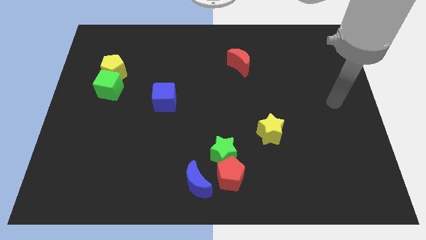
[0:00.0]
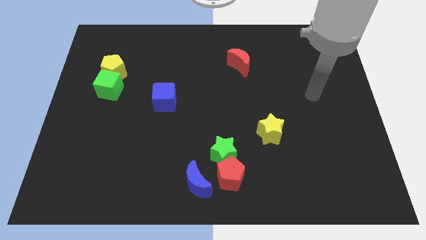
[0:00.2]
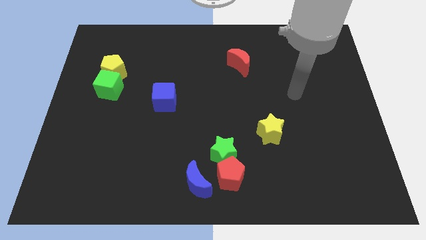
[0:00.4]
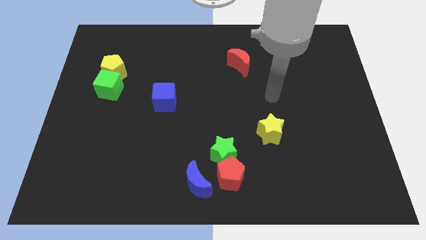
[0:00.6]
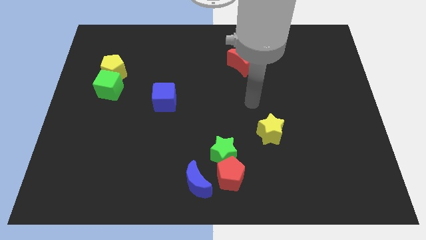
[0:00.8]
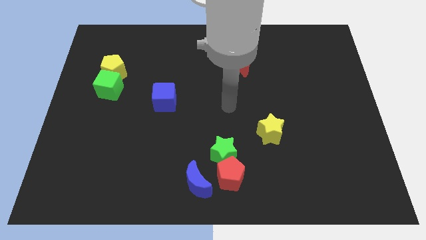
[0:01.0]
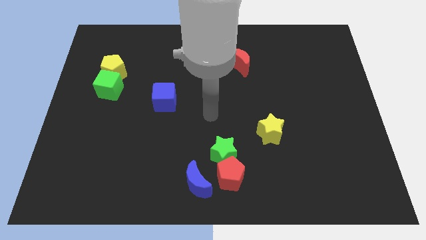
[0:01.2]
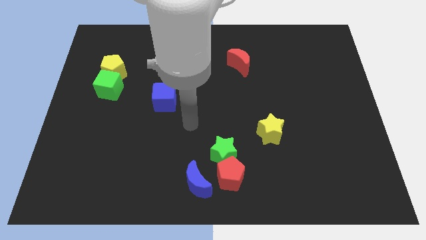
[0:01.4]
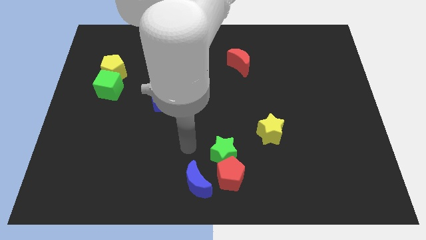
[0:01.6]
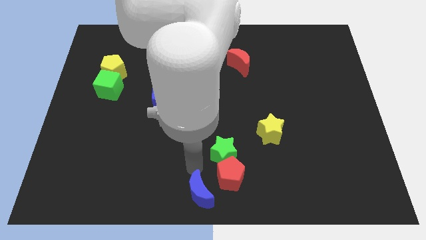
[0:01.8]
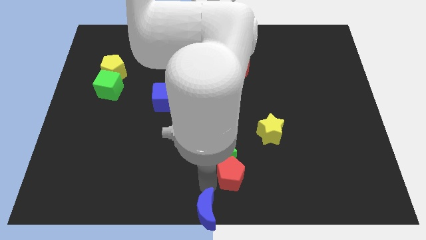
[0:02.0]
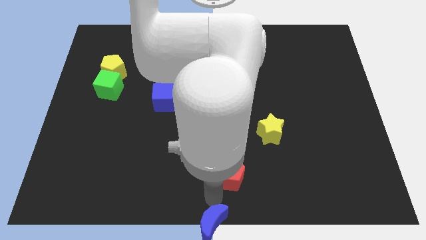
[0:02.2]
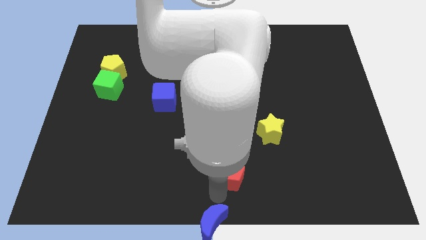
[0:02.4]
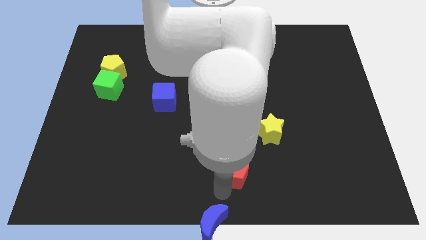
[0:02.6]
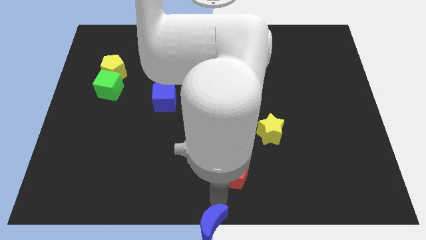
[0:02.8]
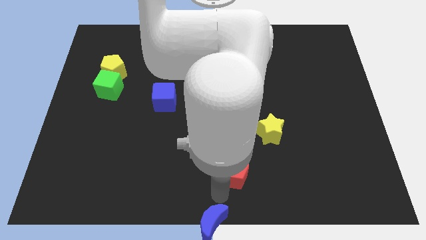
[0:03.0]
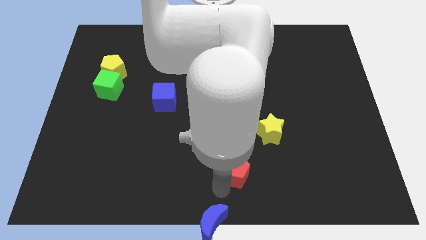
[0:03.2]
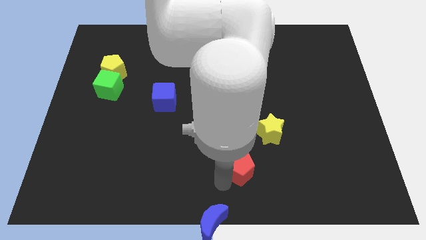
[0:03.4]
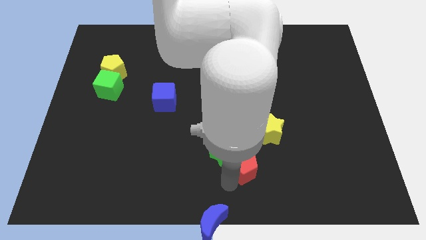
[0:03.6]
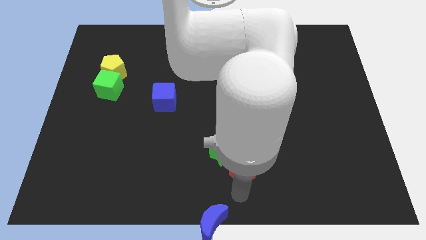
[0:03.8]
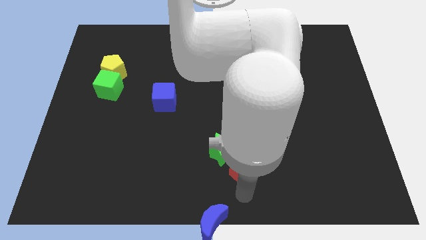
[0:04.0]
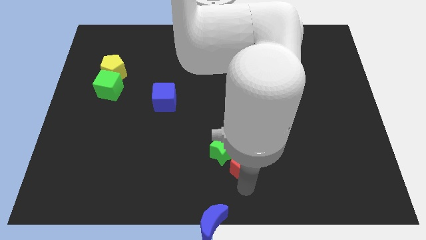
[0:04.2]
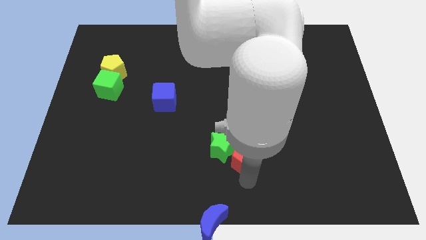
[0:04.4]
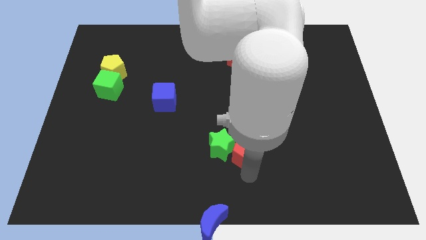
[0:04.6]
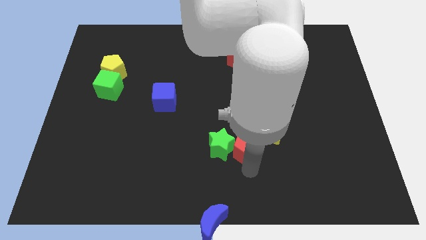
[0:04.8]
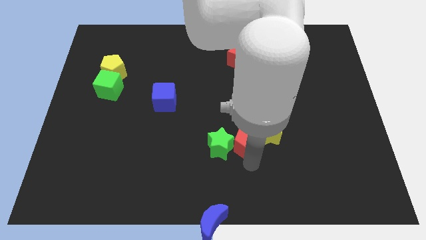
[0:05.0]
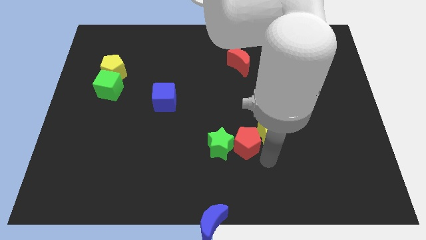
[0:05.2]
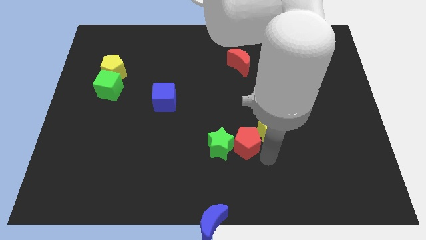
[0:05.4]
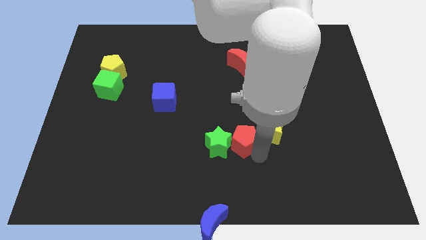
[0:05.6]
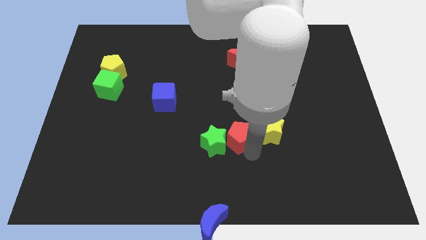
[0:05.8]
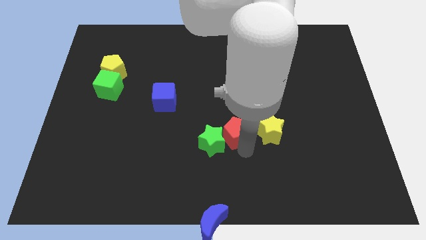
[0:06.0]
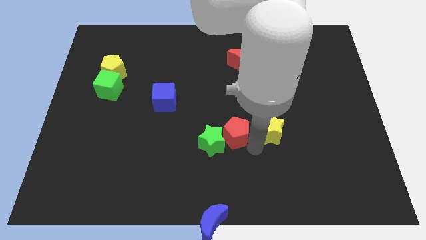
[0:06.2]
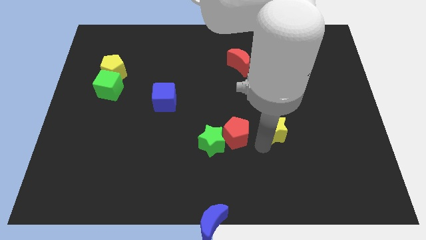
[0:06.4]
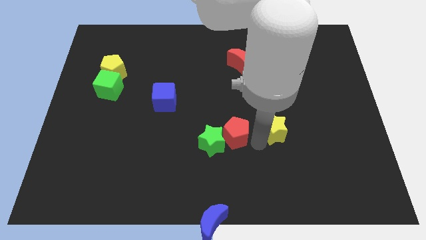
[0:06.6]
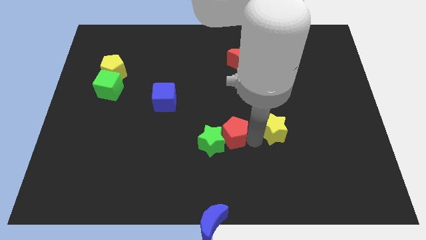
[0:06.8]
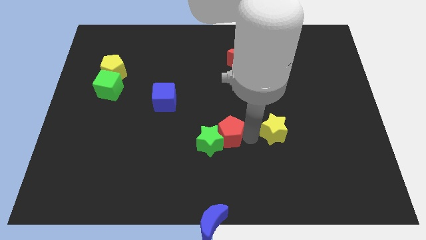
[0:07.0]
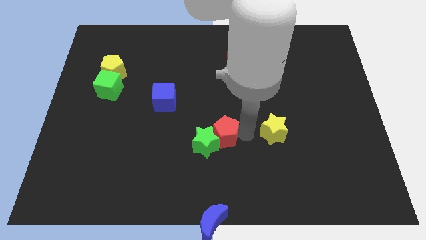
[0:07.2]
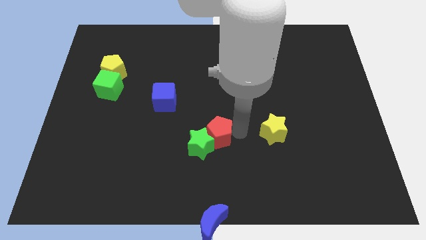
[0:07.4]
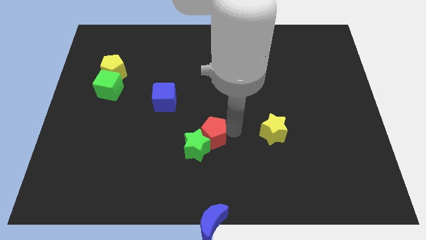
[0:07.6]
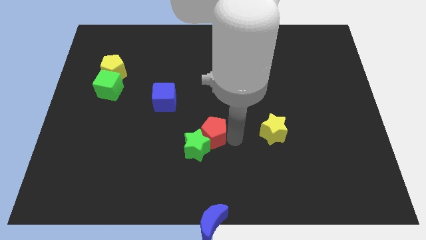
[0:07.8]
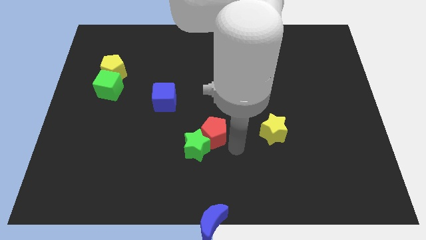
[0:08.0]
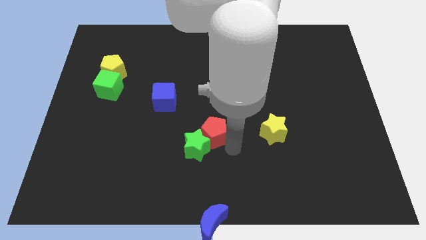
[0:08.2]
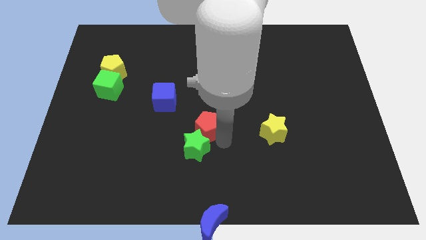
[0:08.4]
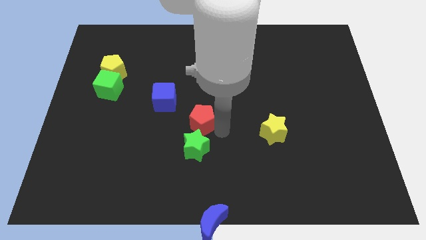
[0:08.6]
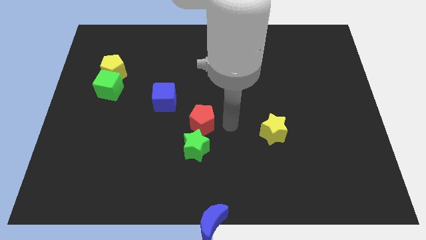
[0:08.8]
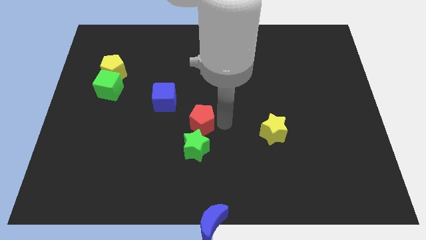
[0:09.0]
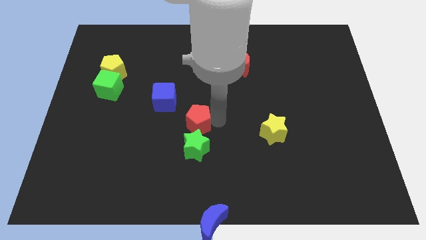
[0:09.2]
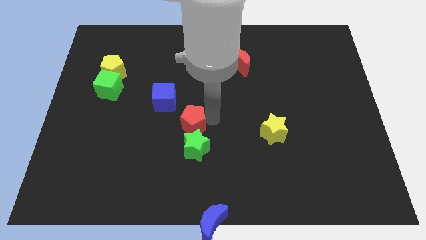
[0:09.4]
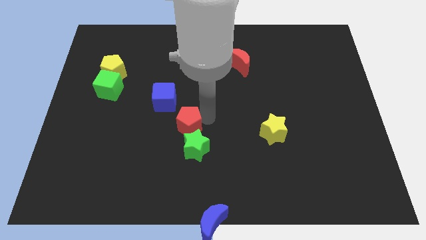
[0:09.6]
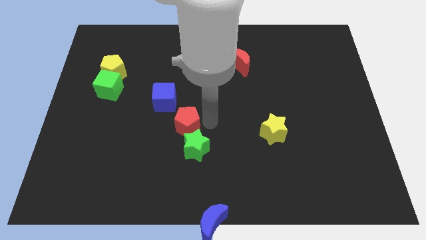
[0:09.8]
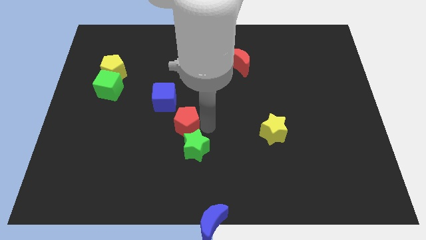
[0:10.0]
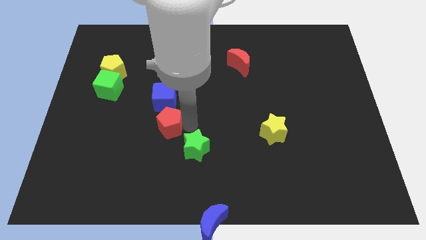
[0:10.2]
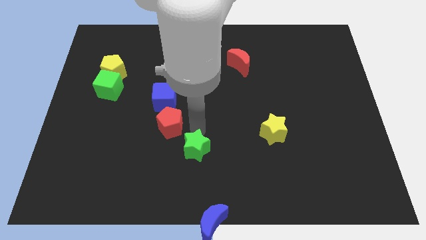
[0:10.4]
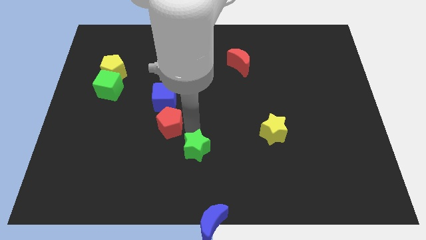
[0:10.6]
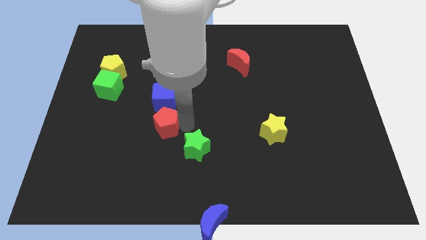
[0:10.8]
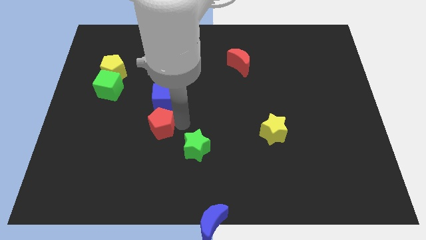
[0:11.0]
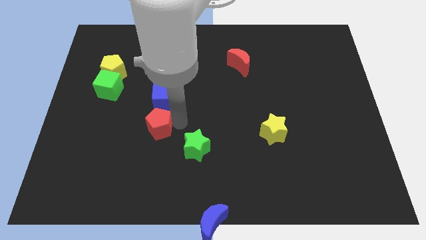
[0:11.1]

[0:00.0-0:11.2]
slide the red pentagon upwards and then to the left

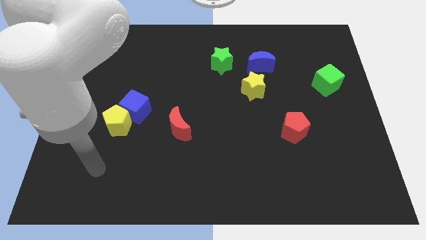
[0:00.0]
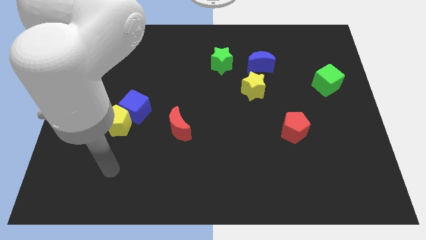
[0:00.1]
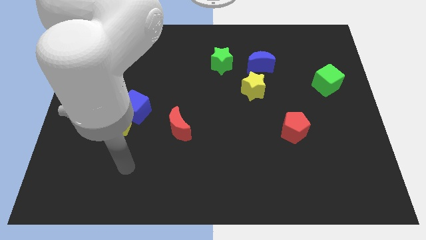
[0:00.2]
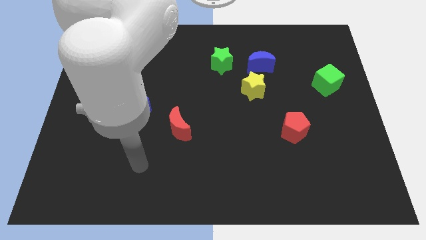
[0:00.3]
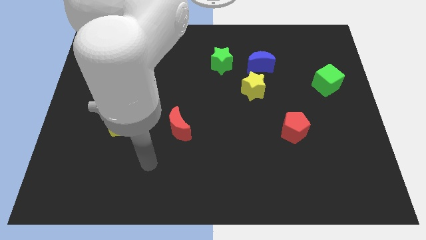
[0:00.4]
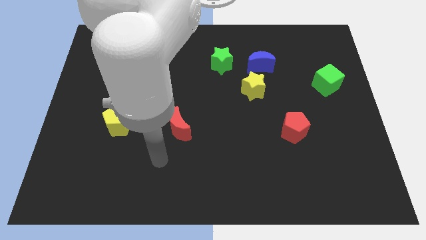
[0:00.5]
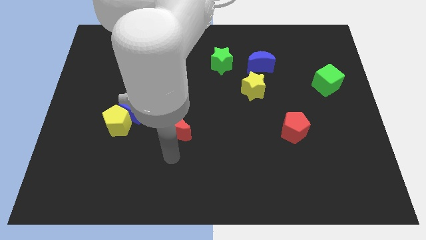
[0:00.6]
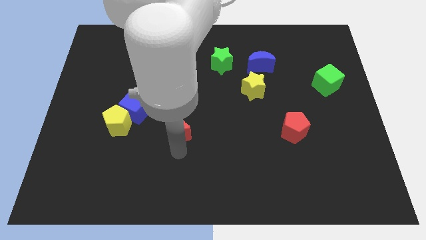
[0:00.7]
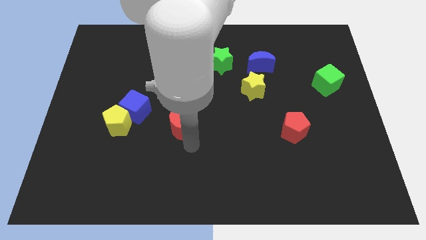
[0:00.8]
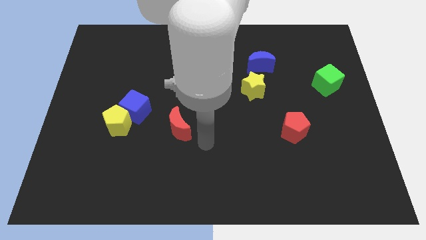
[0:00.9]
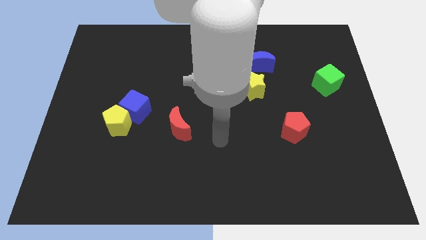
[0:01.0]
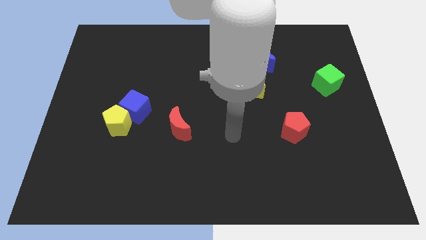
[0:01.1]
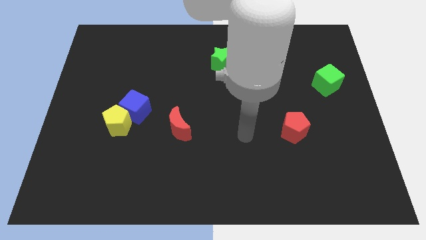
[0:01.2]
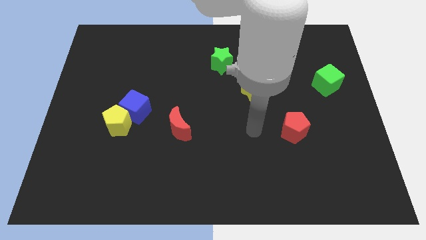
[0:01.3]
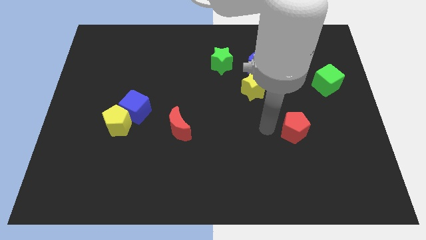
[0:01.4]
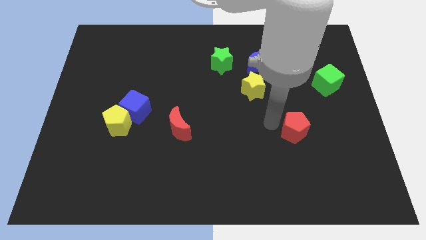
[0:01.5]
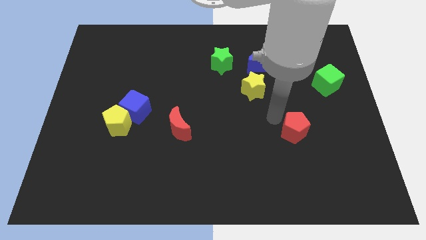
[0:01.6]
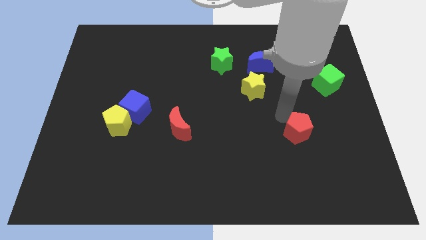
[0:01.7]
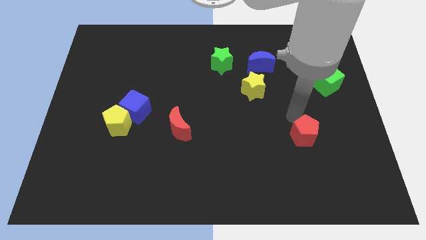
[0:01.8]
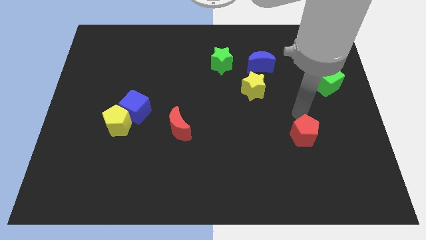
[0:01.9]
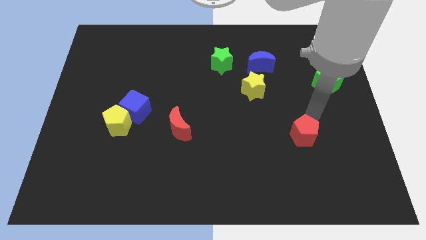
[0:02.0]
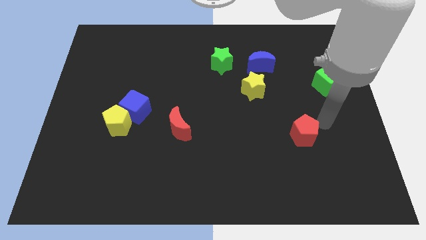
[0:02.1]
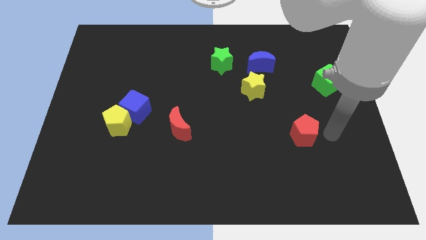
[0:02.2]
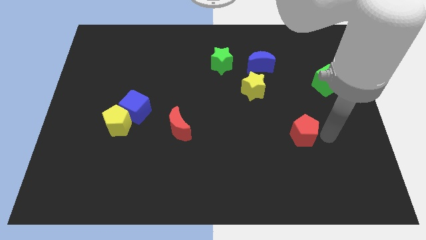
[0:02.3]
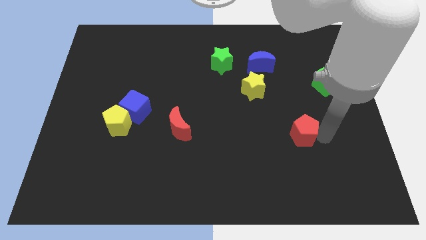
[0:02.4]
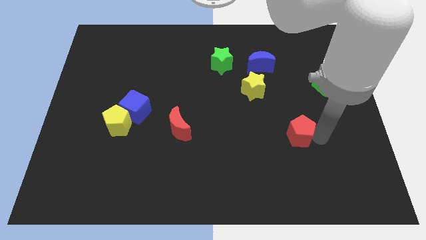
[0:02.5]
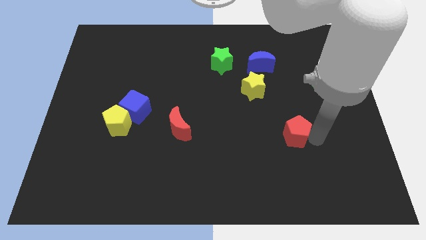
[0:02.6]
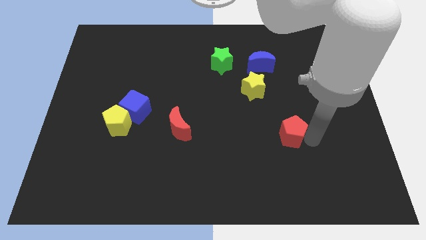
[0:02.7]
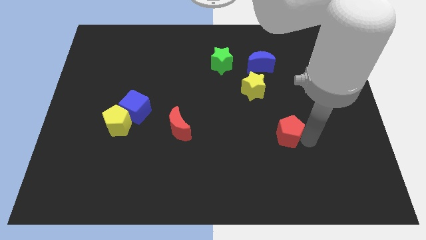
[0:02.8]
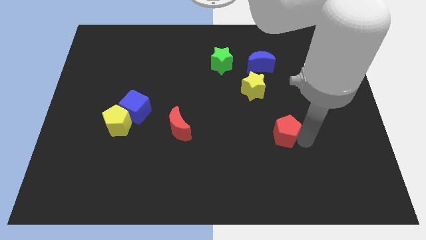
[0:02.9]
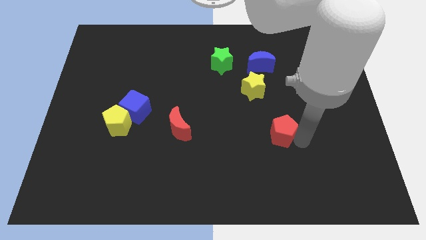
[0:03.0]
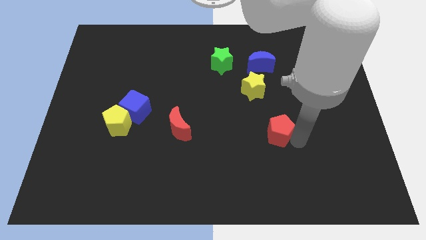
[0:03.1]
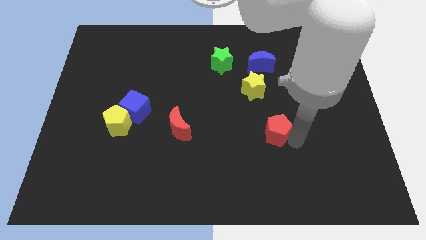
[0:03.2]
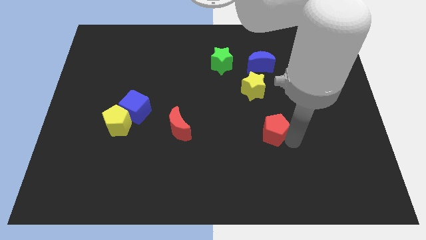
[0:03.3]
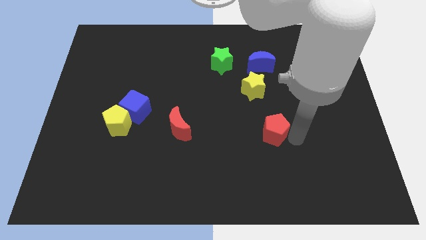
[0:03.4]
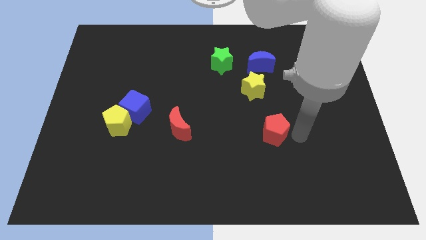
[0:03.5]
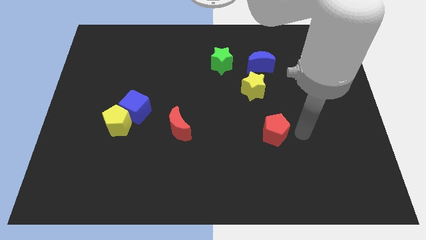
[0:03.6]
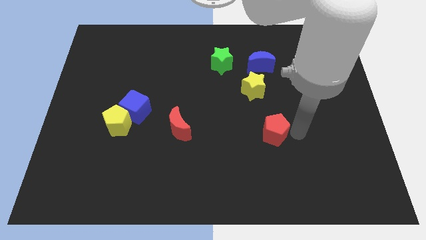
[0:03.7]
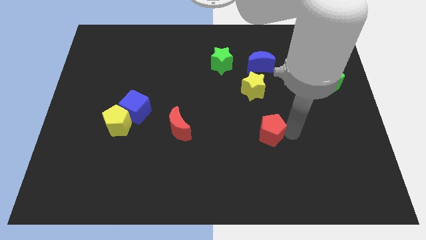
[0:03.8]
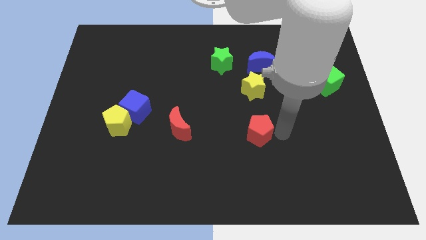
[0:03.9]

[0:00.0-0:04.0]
slightly push the red pentagon to the left
